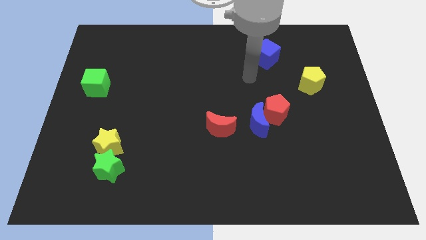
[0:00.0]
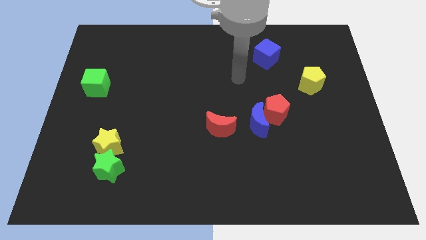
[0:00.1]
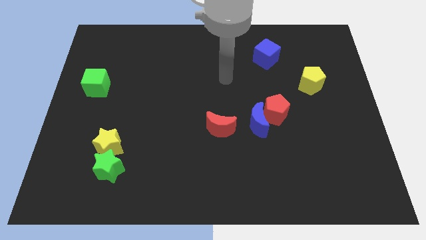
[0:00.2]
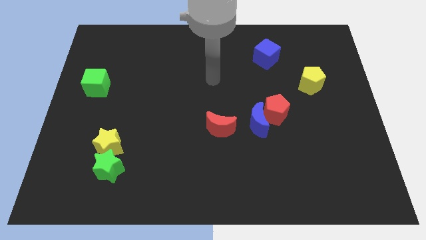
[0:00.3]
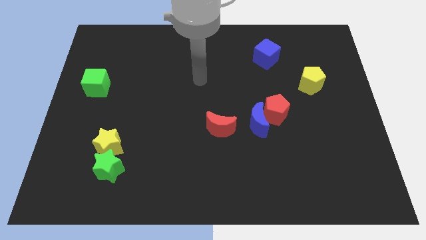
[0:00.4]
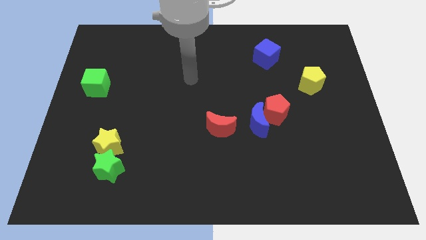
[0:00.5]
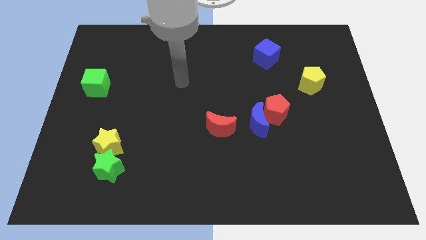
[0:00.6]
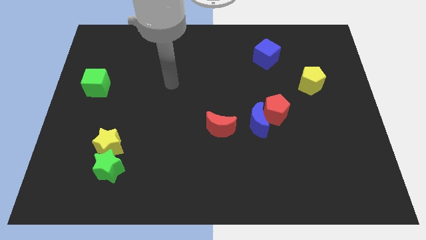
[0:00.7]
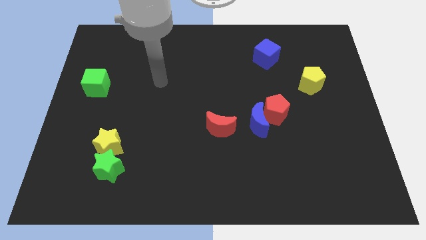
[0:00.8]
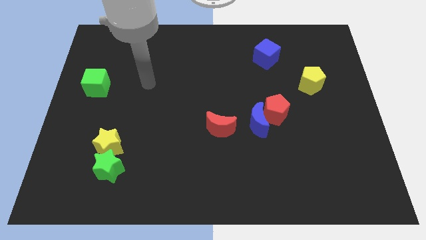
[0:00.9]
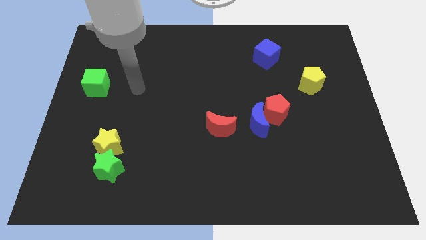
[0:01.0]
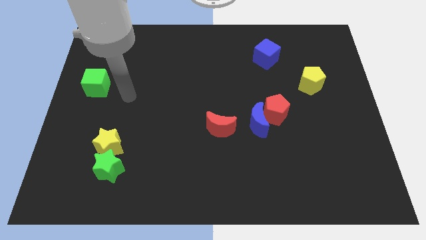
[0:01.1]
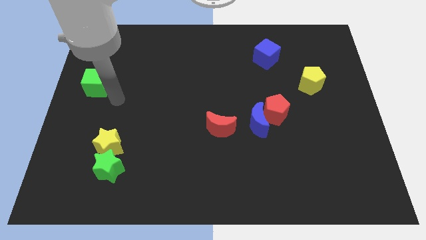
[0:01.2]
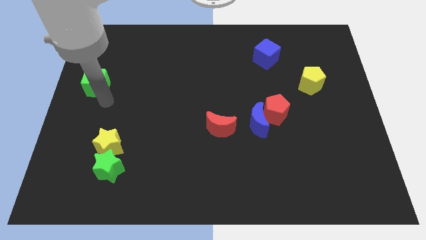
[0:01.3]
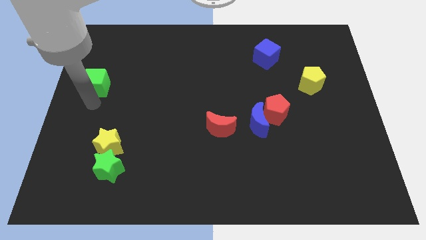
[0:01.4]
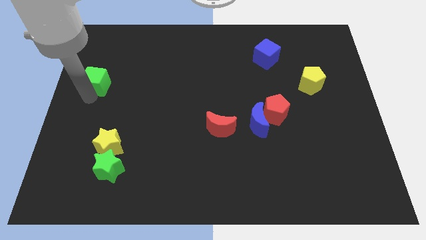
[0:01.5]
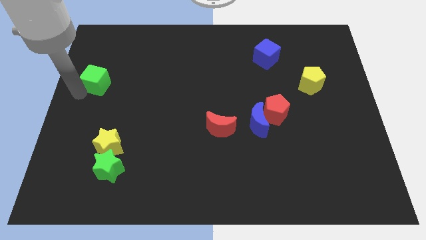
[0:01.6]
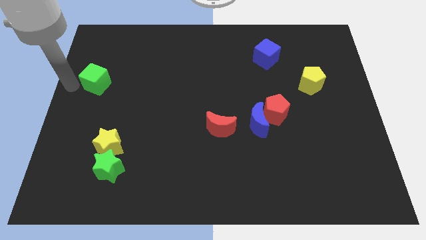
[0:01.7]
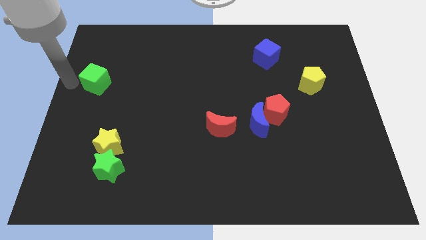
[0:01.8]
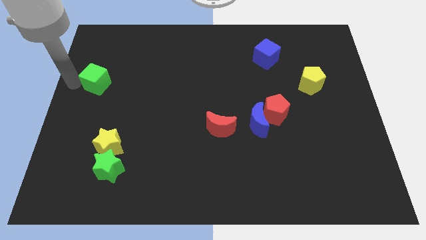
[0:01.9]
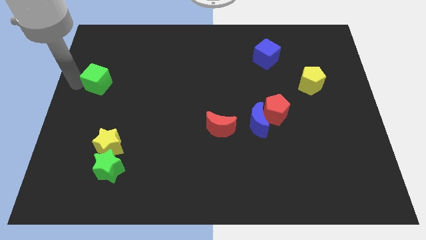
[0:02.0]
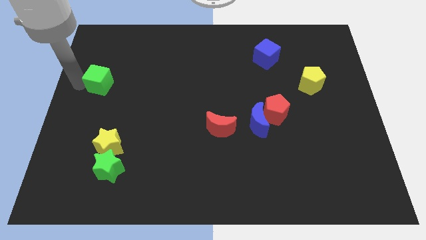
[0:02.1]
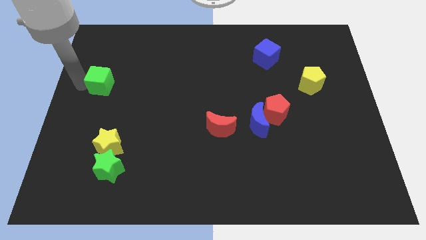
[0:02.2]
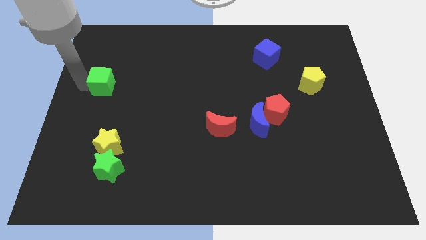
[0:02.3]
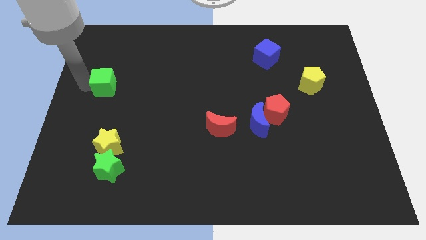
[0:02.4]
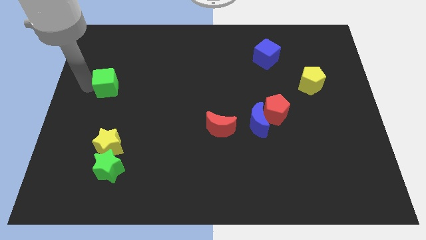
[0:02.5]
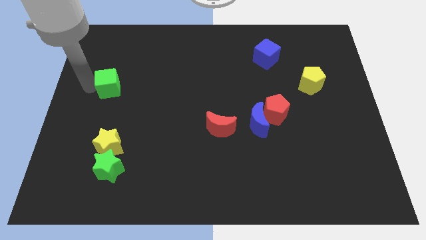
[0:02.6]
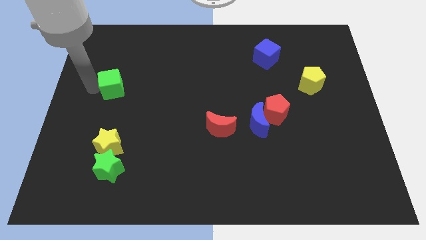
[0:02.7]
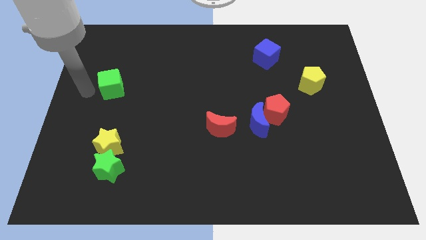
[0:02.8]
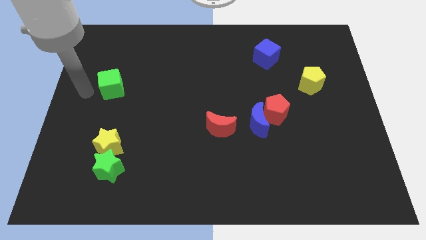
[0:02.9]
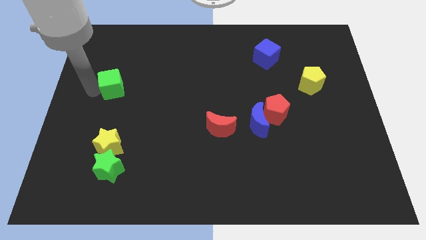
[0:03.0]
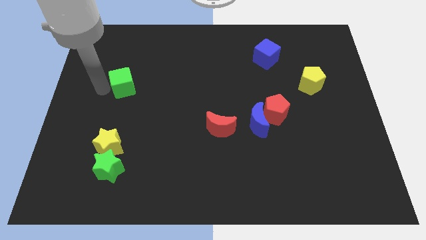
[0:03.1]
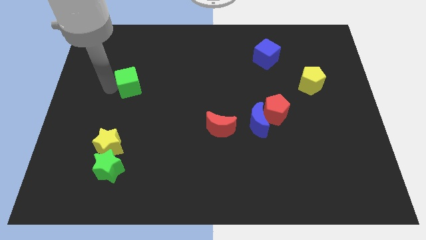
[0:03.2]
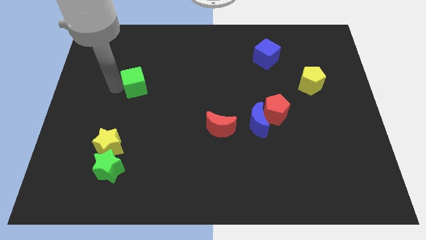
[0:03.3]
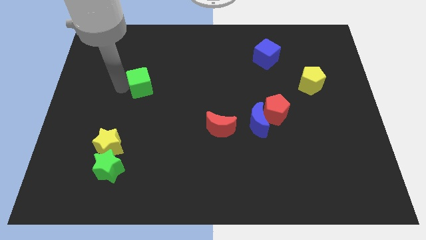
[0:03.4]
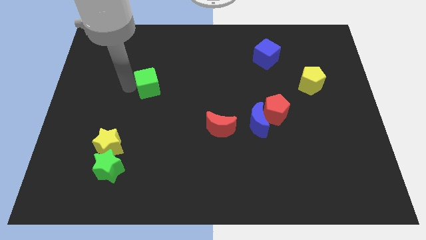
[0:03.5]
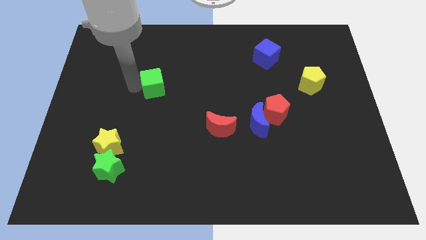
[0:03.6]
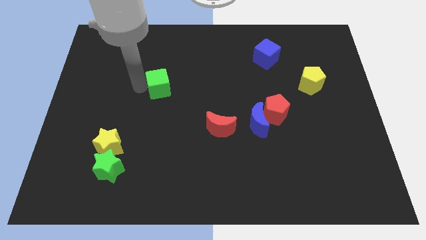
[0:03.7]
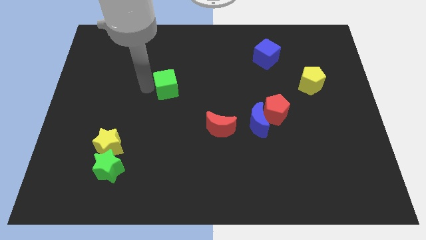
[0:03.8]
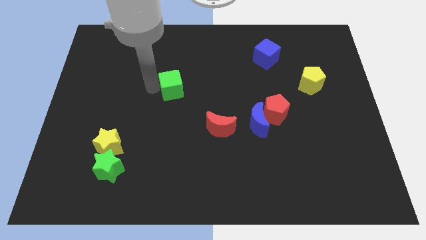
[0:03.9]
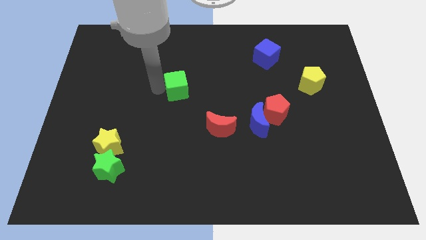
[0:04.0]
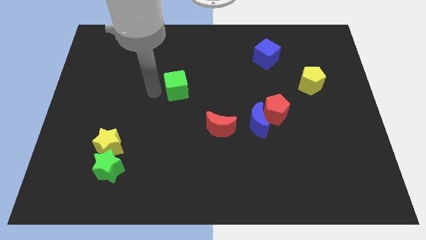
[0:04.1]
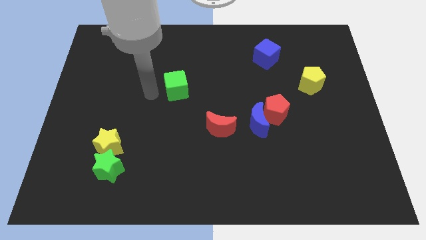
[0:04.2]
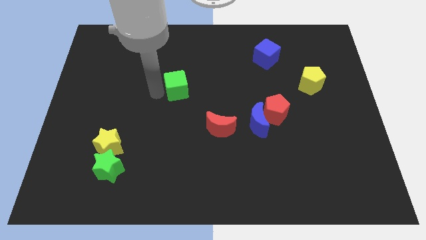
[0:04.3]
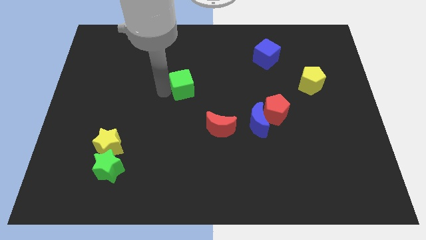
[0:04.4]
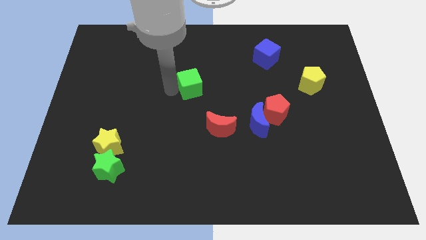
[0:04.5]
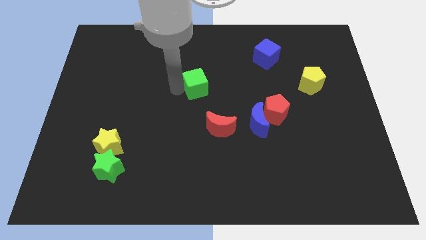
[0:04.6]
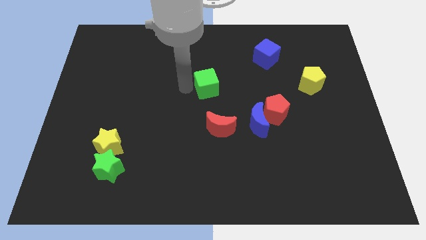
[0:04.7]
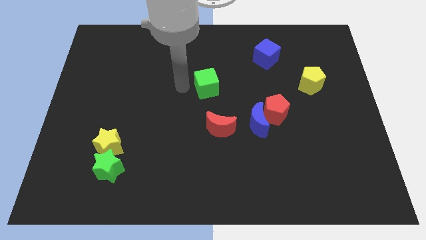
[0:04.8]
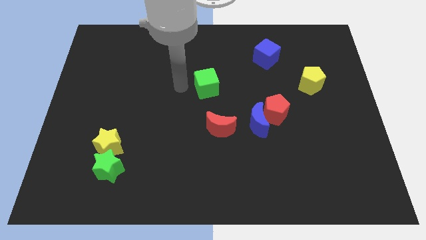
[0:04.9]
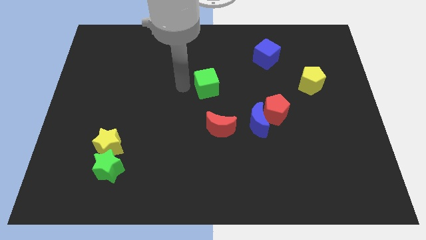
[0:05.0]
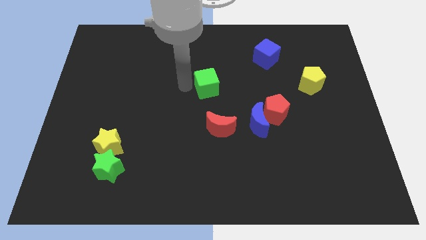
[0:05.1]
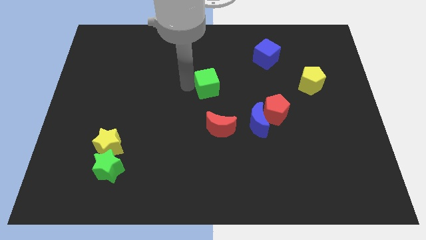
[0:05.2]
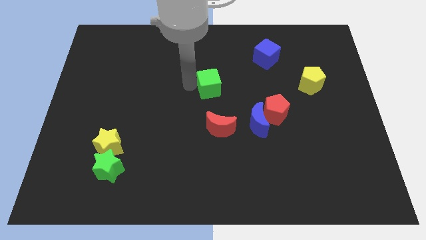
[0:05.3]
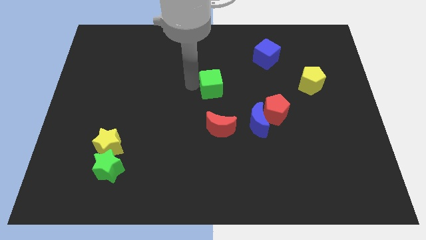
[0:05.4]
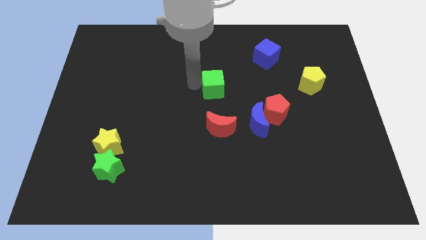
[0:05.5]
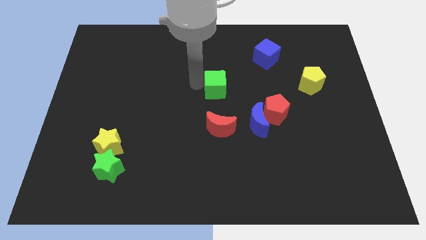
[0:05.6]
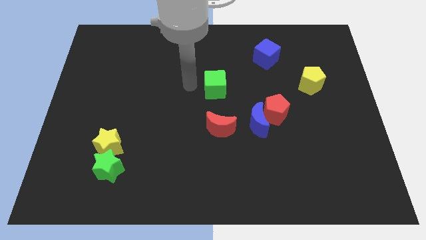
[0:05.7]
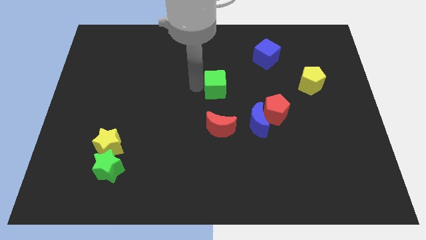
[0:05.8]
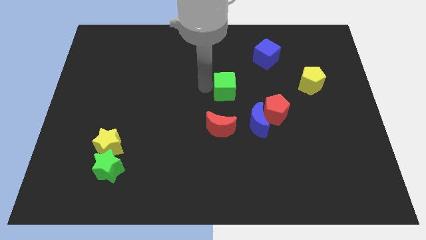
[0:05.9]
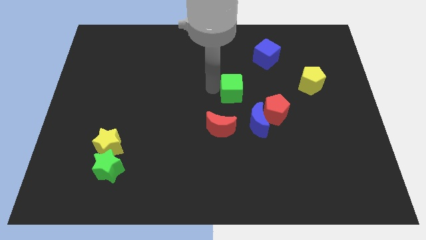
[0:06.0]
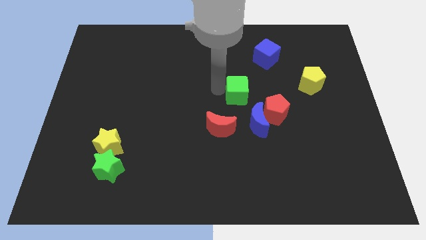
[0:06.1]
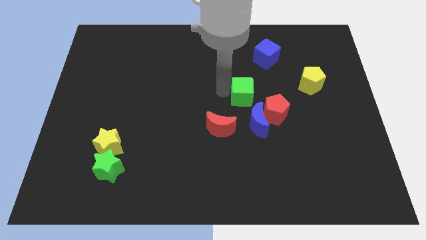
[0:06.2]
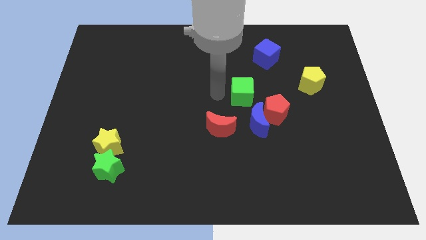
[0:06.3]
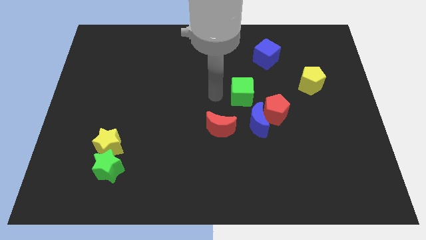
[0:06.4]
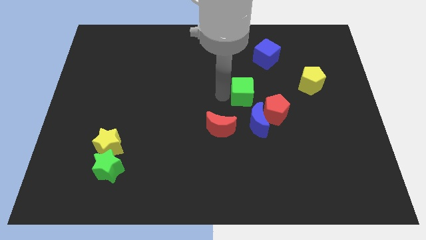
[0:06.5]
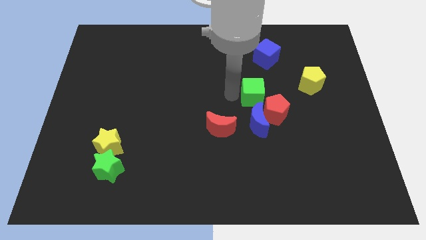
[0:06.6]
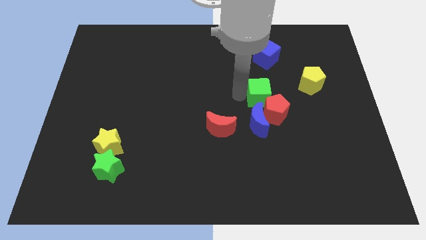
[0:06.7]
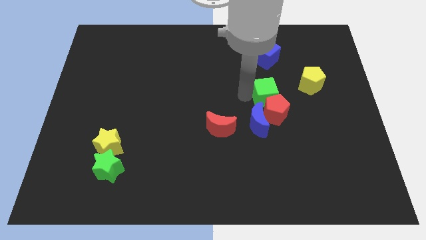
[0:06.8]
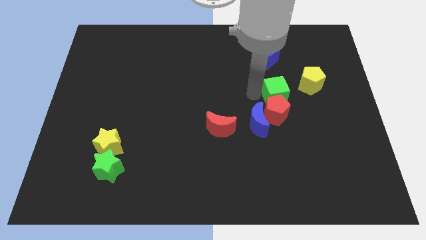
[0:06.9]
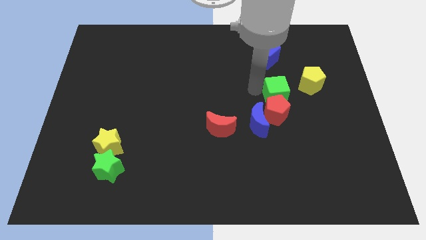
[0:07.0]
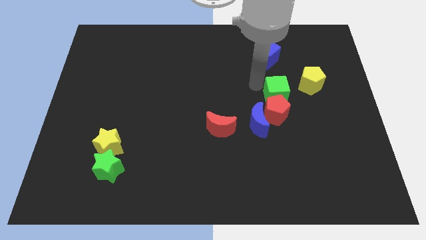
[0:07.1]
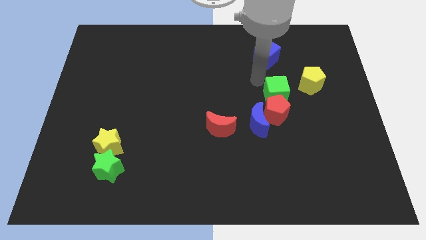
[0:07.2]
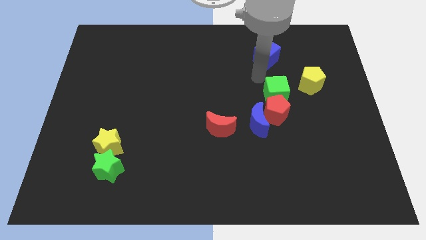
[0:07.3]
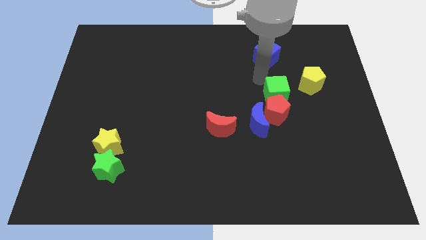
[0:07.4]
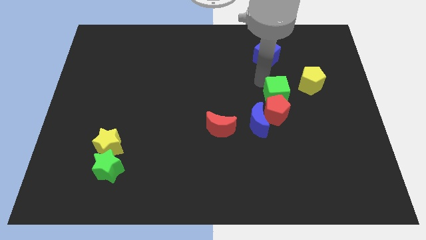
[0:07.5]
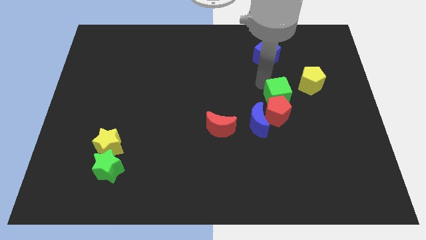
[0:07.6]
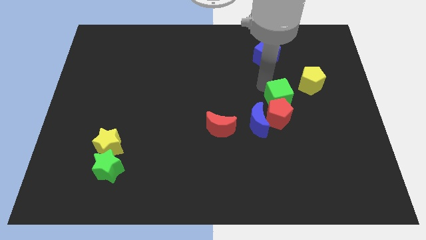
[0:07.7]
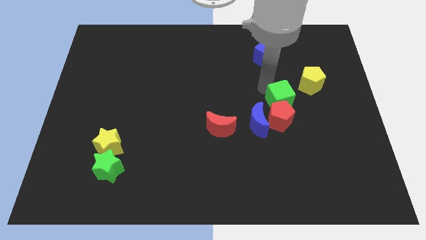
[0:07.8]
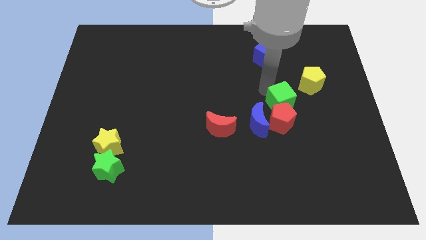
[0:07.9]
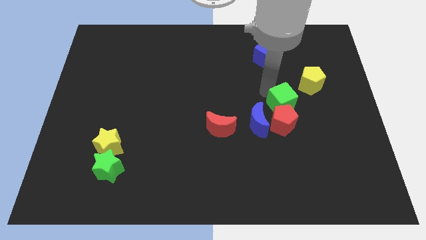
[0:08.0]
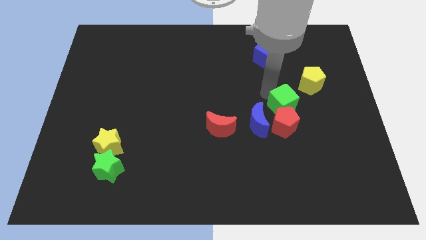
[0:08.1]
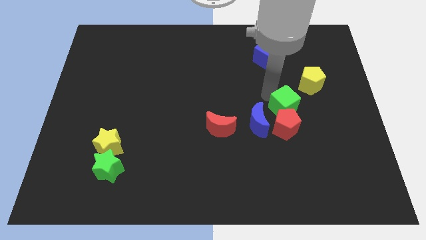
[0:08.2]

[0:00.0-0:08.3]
push the green cube right of the blue moon
